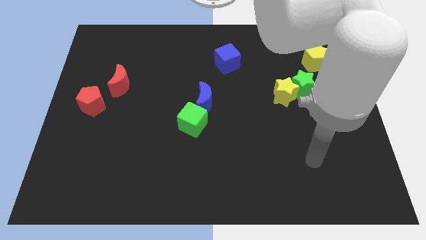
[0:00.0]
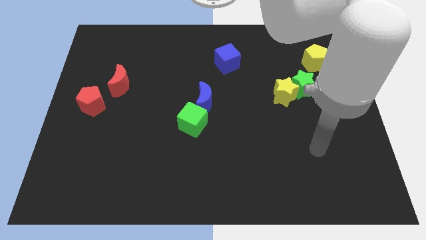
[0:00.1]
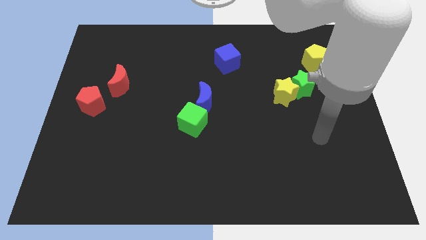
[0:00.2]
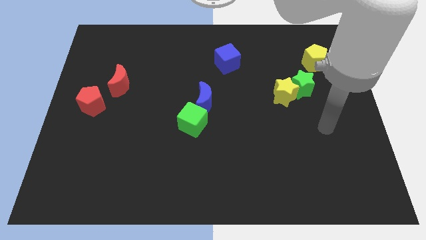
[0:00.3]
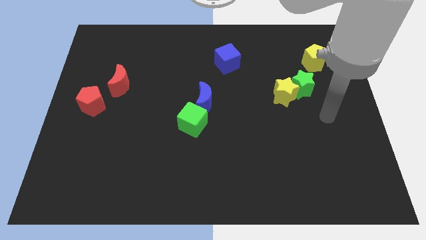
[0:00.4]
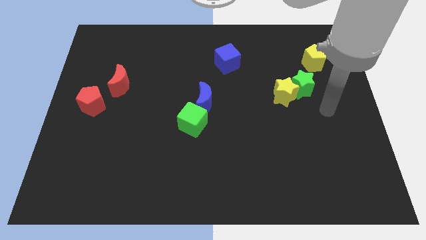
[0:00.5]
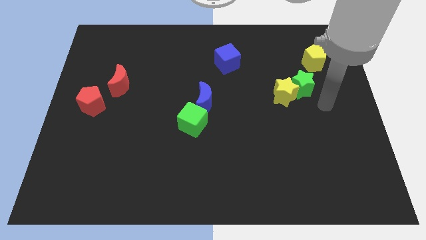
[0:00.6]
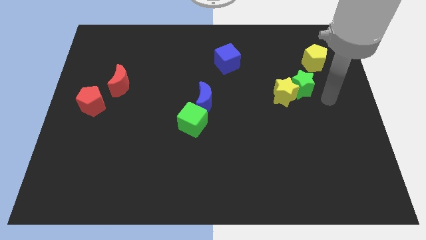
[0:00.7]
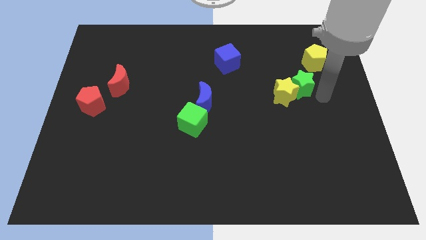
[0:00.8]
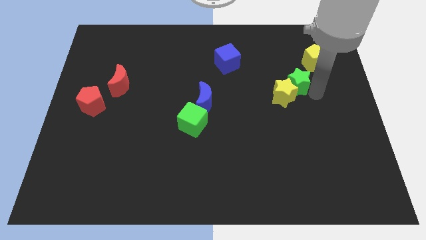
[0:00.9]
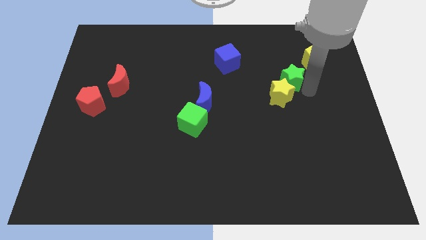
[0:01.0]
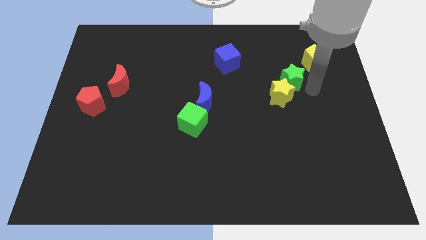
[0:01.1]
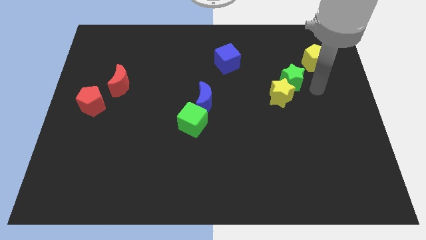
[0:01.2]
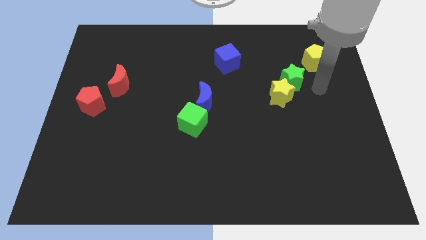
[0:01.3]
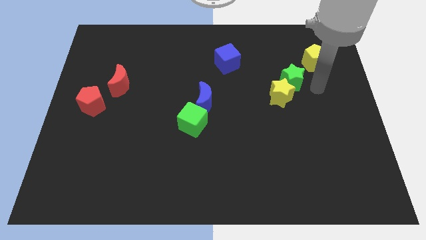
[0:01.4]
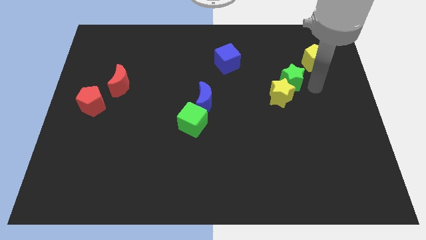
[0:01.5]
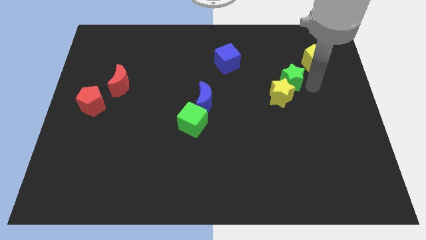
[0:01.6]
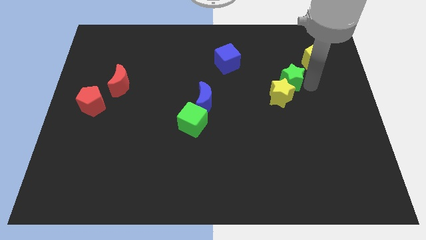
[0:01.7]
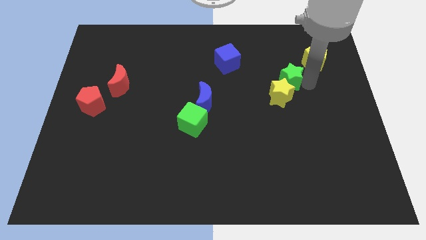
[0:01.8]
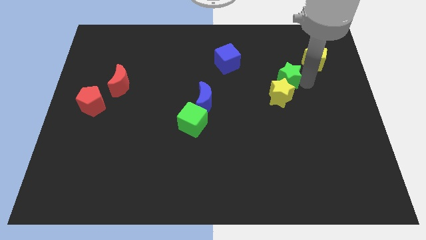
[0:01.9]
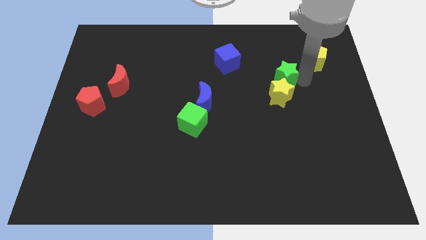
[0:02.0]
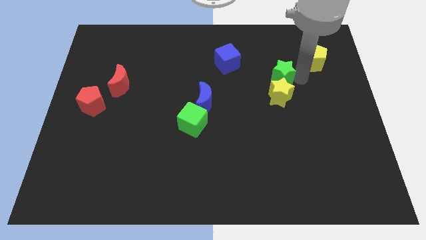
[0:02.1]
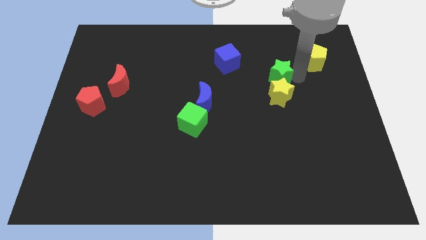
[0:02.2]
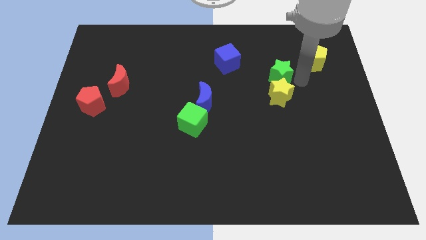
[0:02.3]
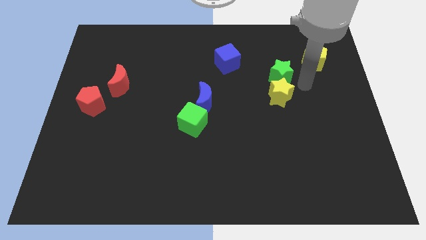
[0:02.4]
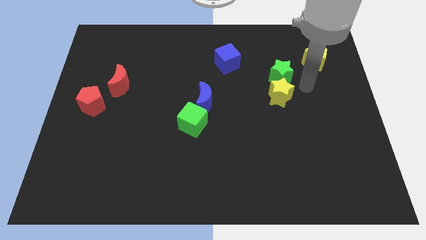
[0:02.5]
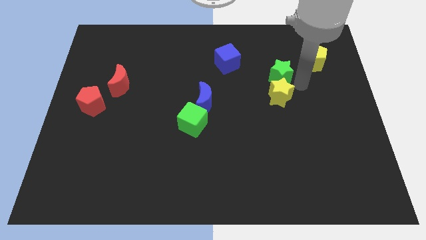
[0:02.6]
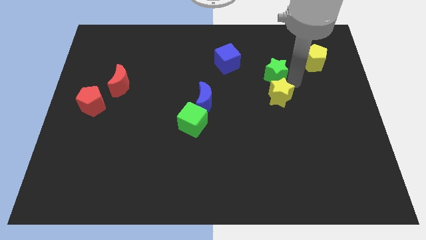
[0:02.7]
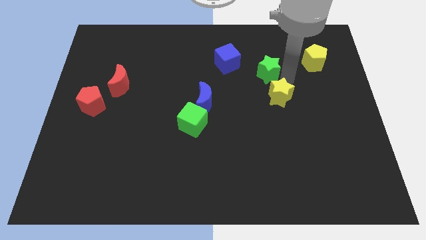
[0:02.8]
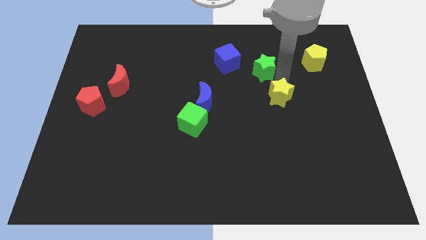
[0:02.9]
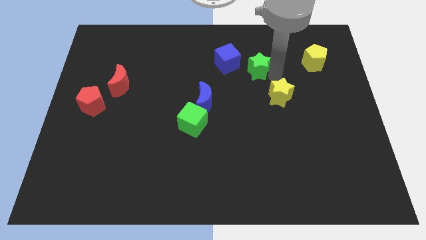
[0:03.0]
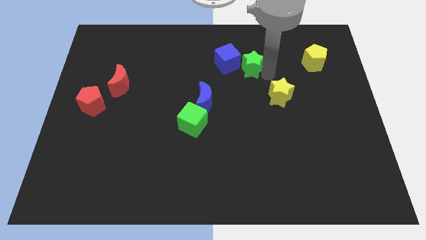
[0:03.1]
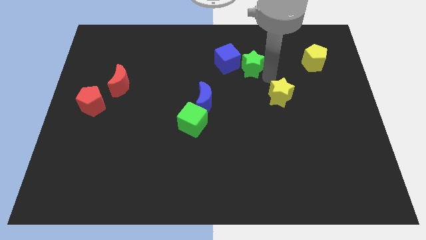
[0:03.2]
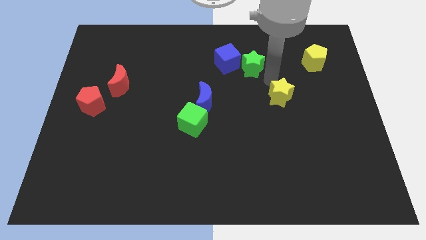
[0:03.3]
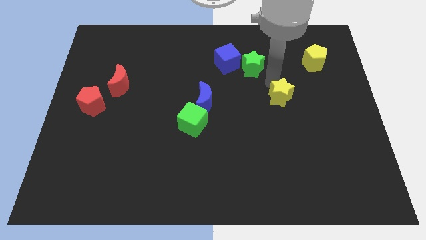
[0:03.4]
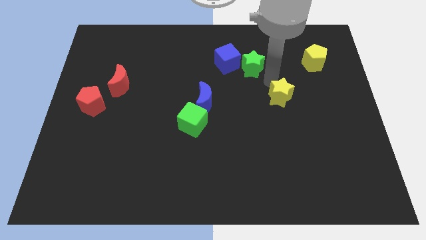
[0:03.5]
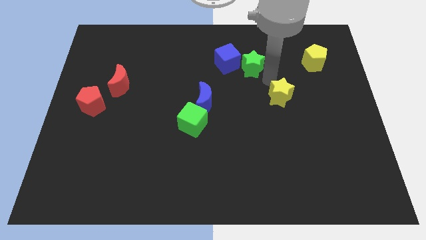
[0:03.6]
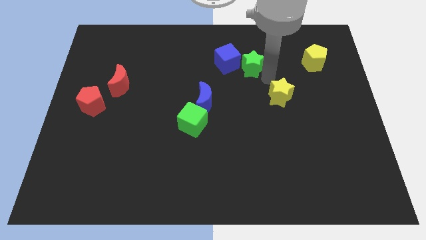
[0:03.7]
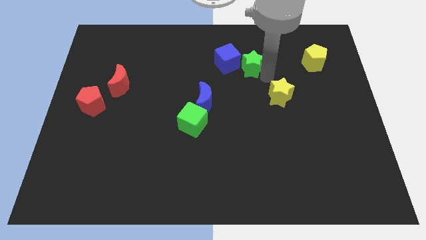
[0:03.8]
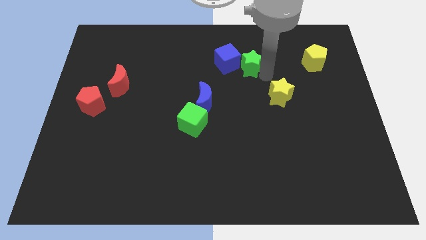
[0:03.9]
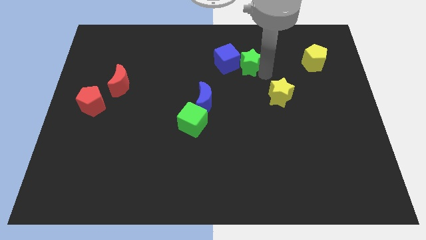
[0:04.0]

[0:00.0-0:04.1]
put the green star close to the blue cube

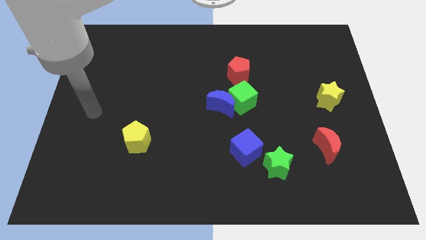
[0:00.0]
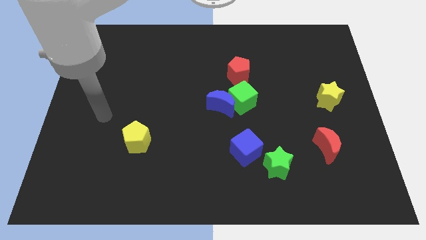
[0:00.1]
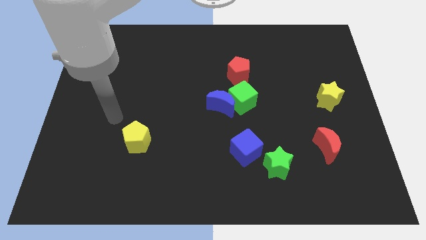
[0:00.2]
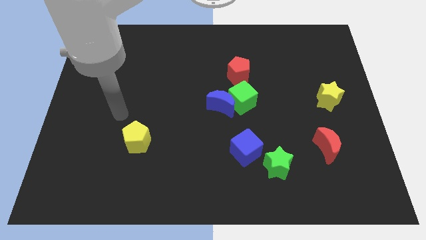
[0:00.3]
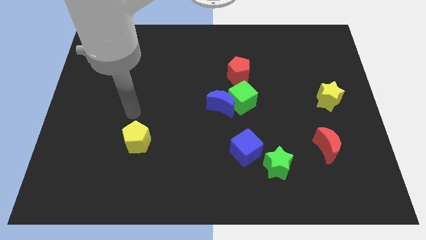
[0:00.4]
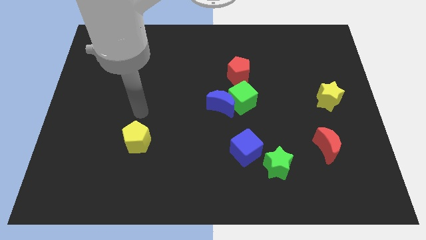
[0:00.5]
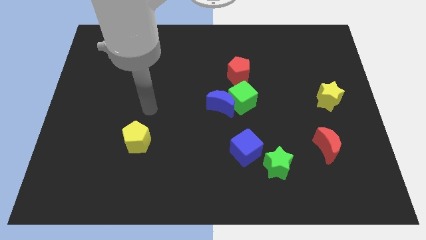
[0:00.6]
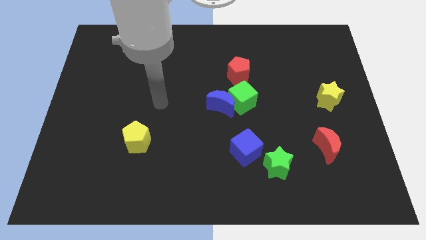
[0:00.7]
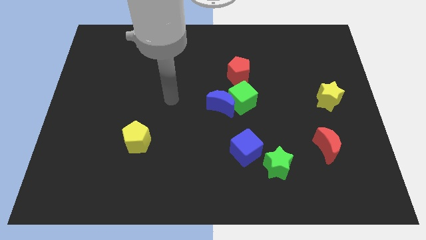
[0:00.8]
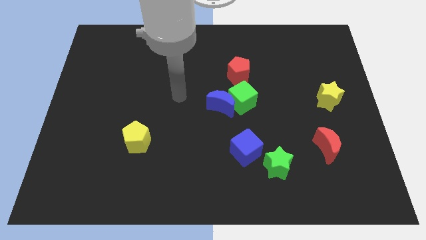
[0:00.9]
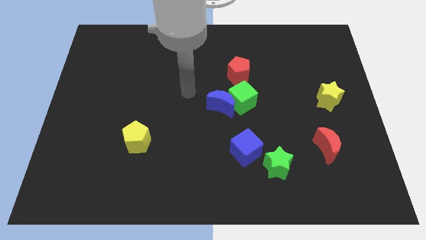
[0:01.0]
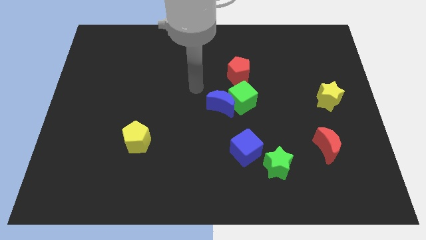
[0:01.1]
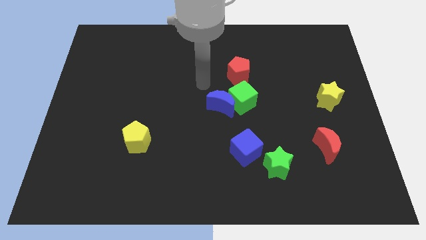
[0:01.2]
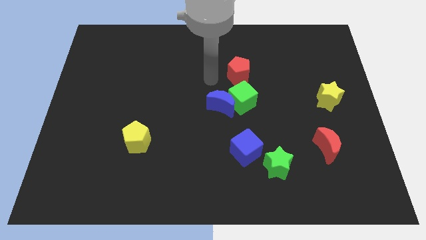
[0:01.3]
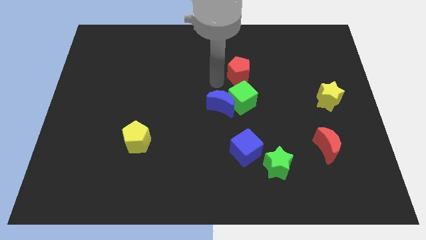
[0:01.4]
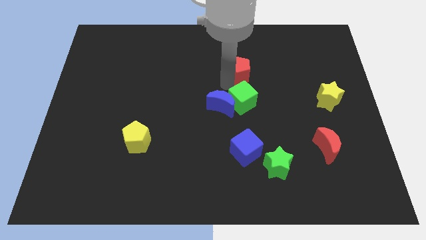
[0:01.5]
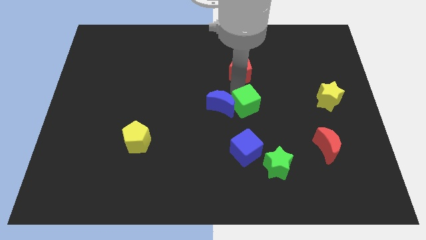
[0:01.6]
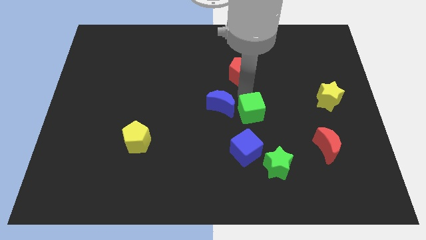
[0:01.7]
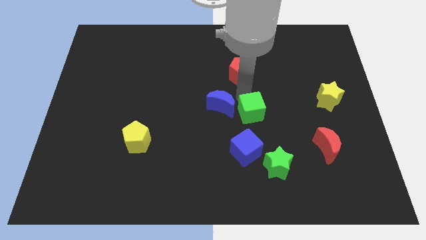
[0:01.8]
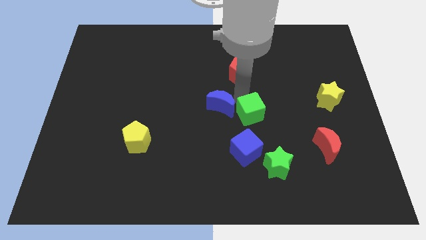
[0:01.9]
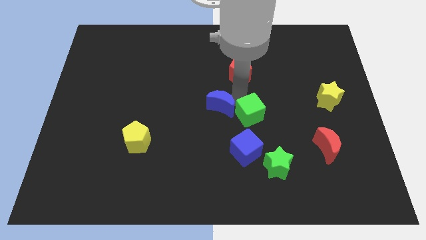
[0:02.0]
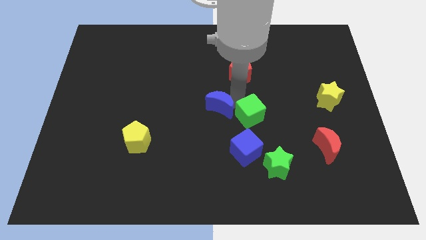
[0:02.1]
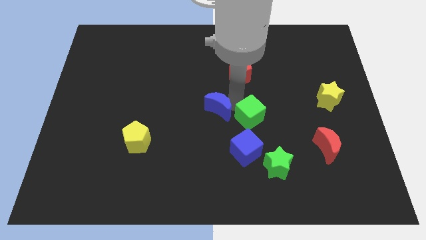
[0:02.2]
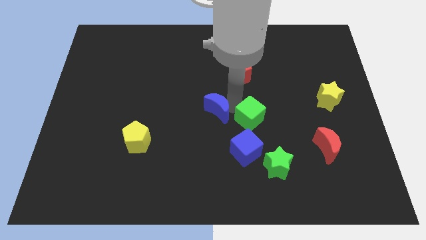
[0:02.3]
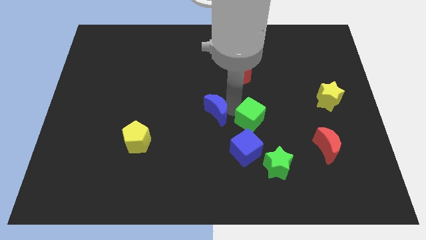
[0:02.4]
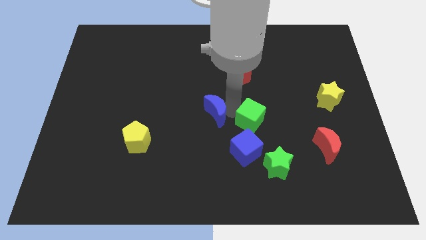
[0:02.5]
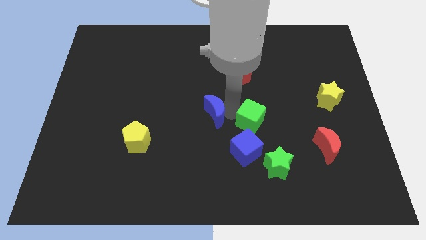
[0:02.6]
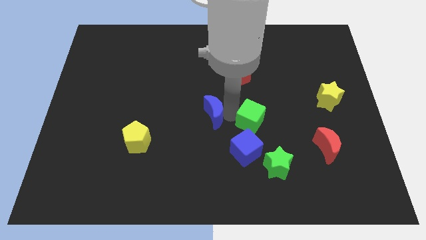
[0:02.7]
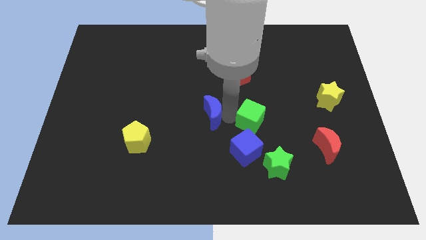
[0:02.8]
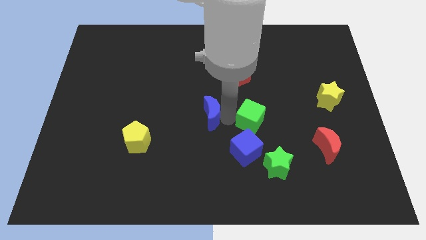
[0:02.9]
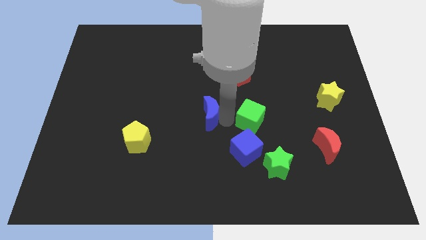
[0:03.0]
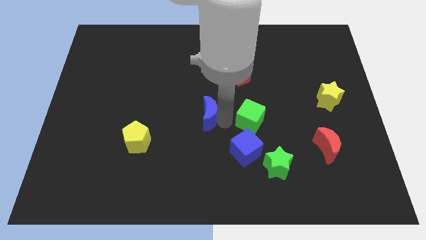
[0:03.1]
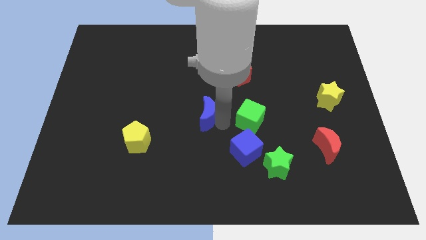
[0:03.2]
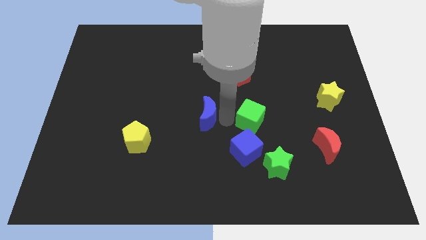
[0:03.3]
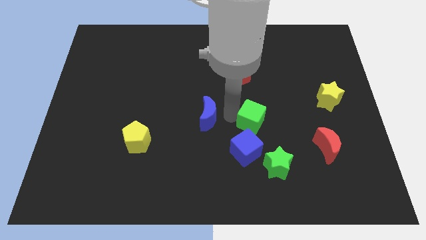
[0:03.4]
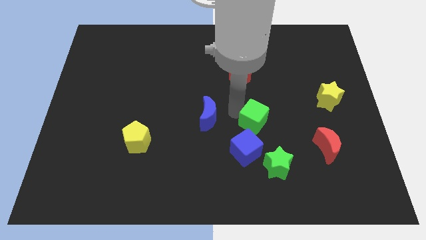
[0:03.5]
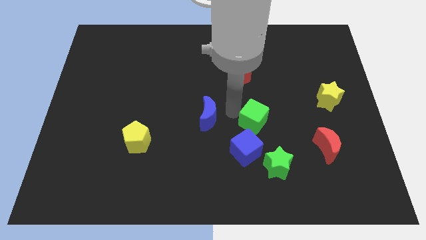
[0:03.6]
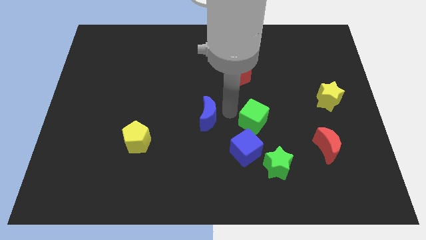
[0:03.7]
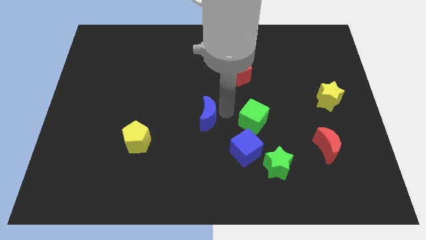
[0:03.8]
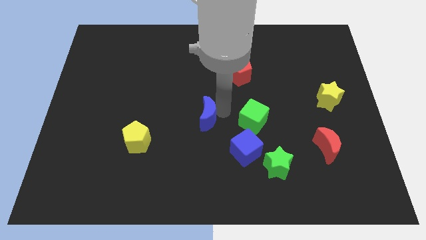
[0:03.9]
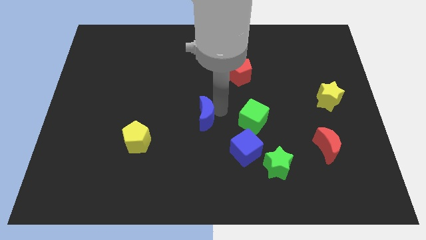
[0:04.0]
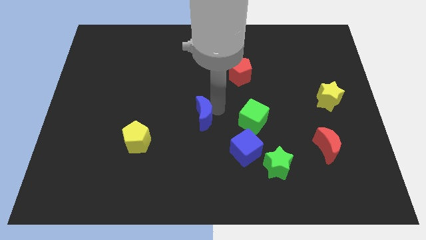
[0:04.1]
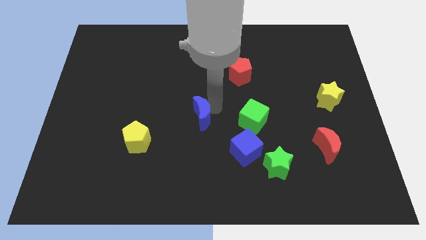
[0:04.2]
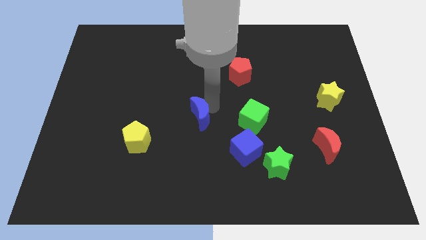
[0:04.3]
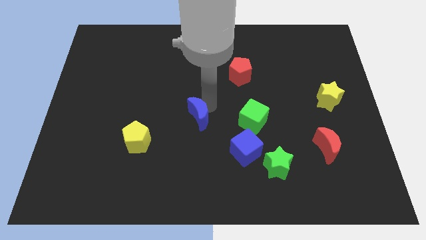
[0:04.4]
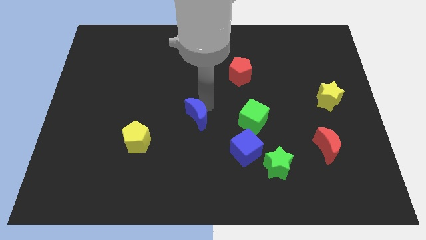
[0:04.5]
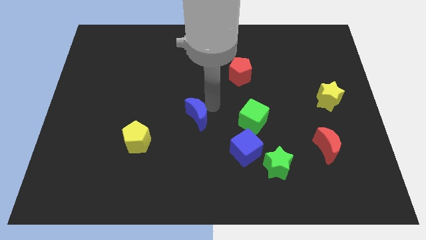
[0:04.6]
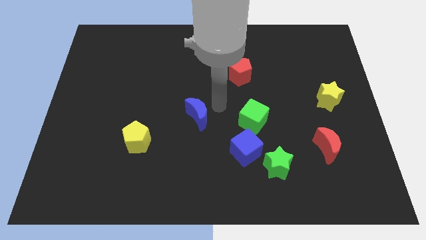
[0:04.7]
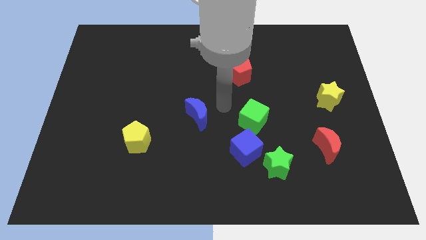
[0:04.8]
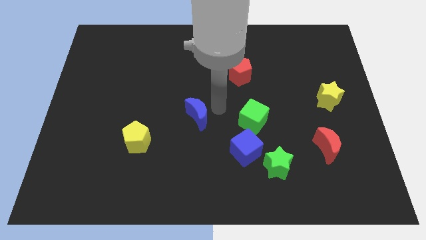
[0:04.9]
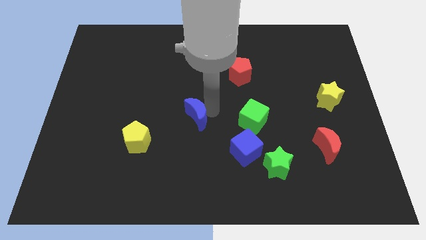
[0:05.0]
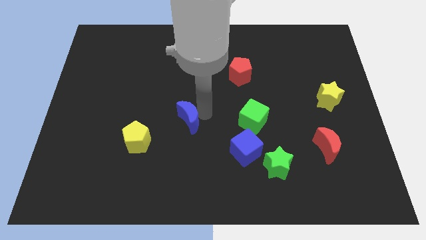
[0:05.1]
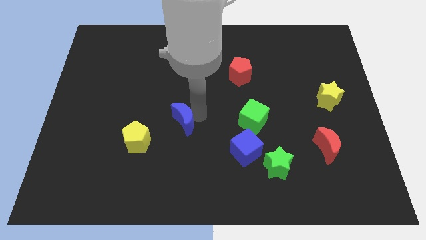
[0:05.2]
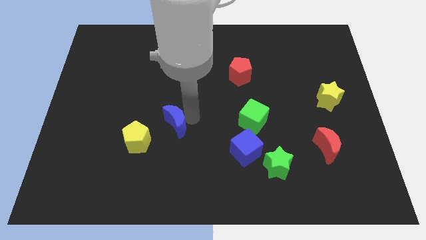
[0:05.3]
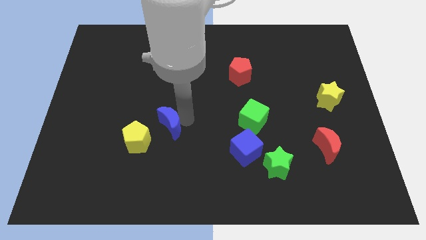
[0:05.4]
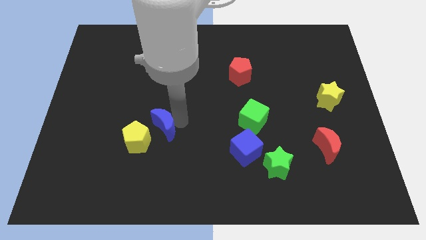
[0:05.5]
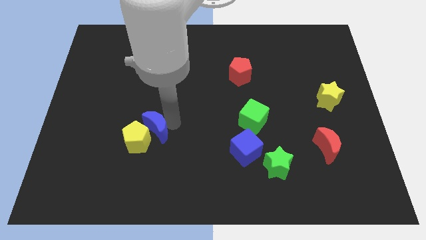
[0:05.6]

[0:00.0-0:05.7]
push the blue moon next to the yellow pentagon
